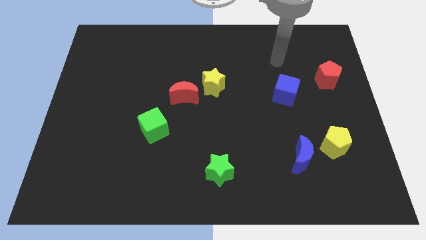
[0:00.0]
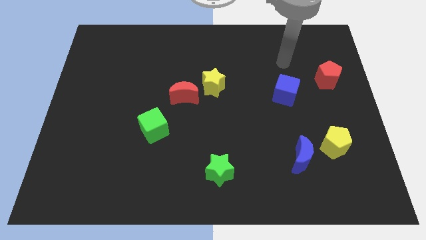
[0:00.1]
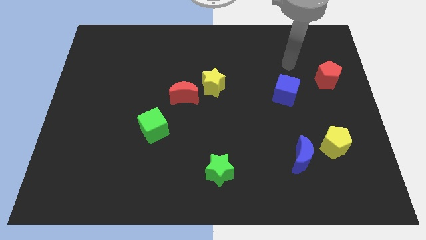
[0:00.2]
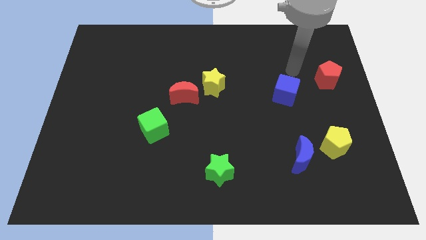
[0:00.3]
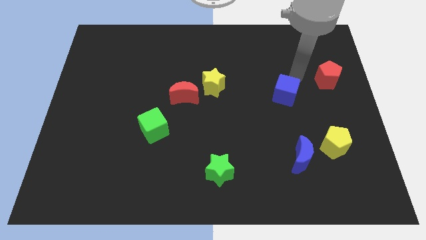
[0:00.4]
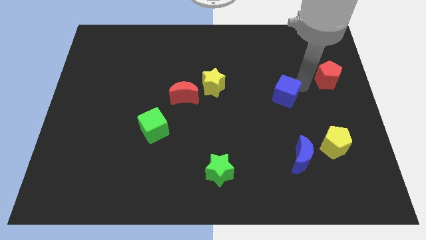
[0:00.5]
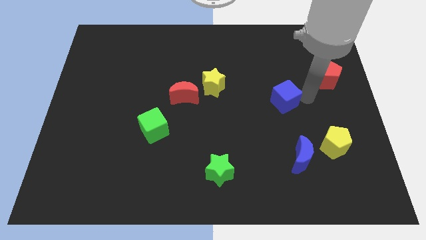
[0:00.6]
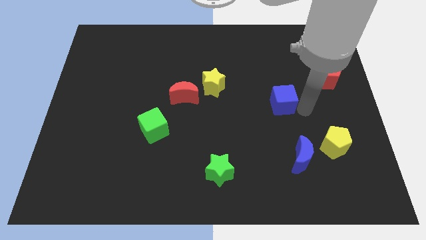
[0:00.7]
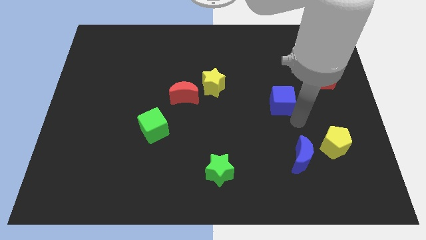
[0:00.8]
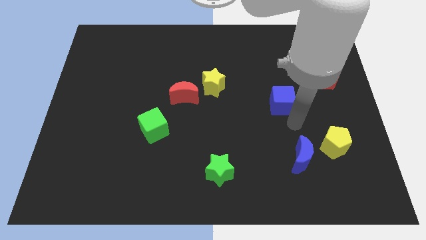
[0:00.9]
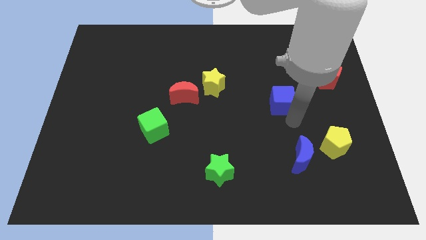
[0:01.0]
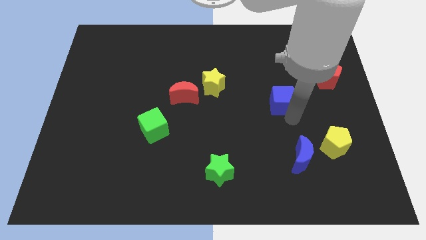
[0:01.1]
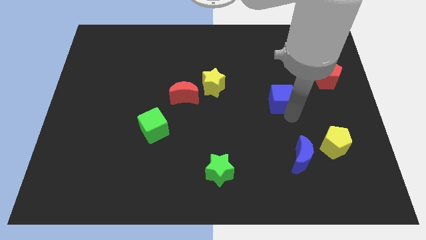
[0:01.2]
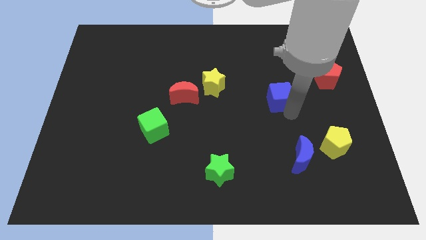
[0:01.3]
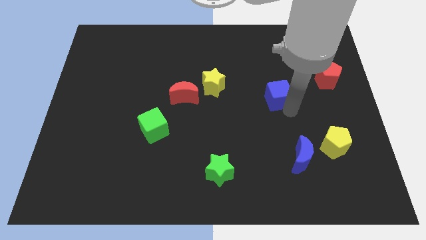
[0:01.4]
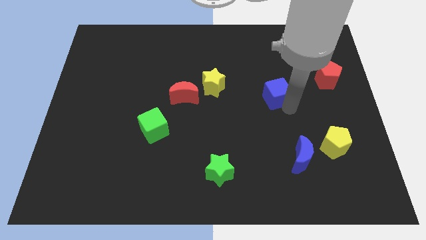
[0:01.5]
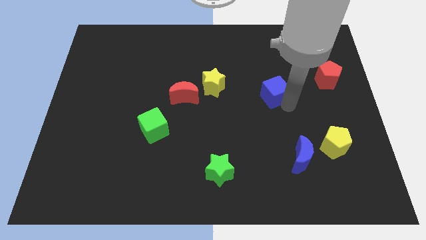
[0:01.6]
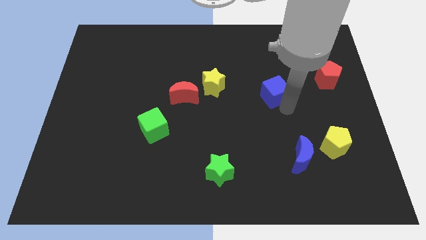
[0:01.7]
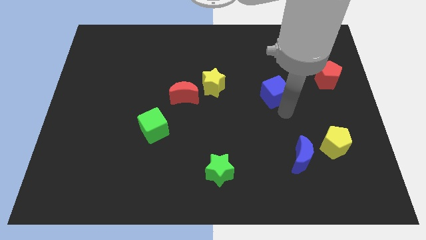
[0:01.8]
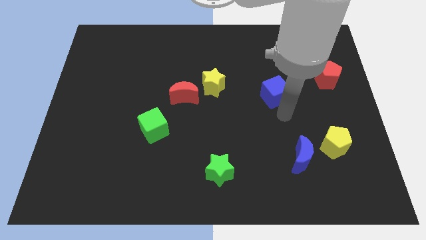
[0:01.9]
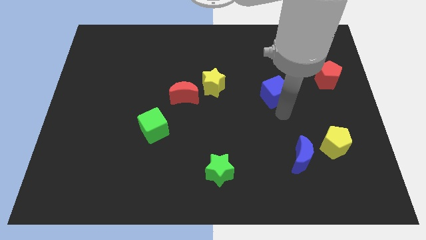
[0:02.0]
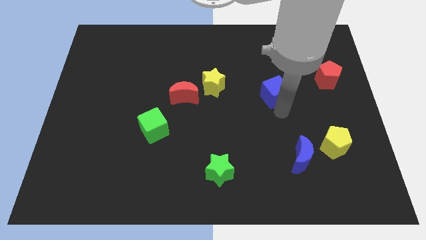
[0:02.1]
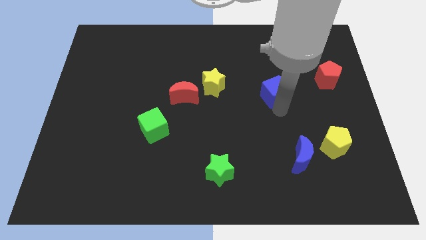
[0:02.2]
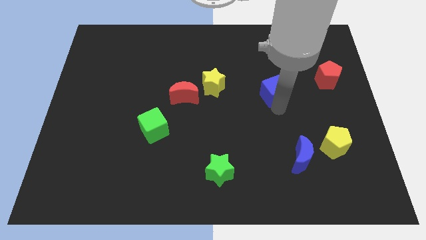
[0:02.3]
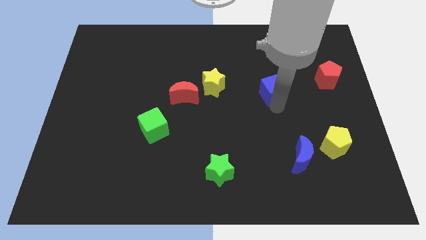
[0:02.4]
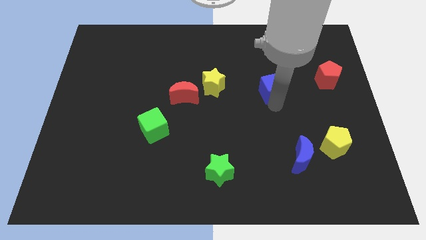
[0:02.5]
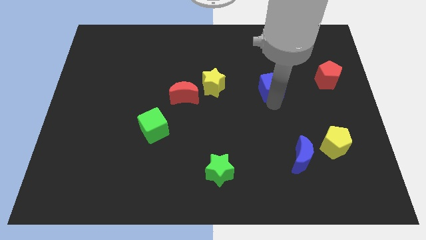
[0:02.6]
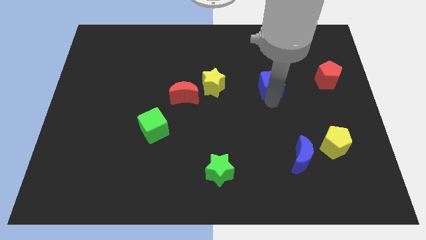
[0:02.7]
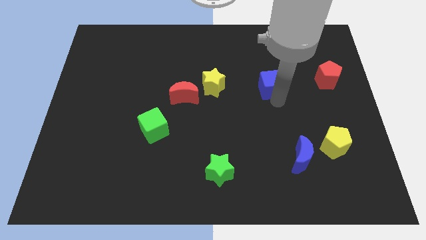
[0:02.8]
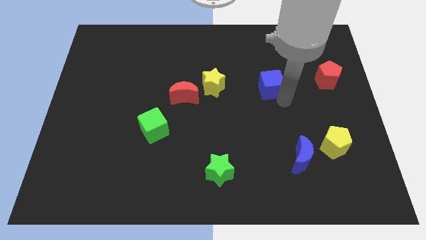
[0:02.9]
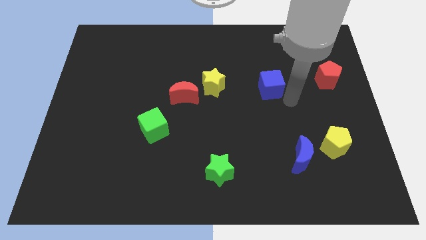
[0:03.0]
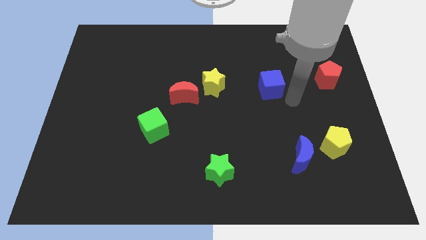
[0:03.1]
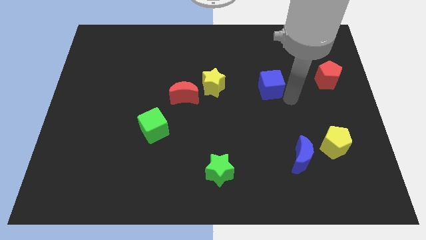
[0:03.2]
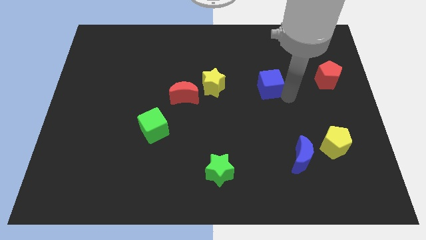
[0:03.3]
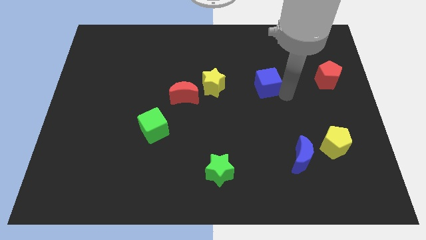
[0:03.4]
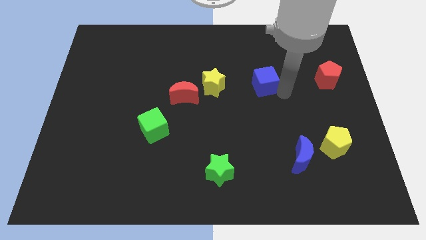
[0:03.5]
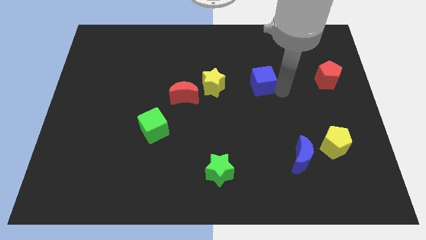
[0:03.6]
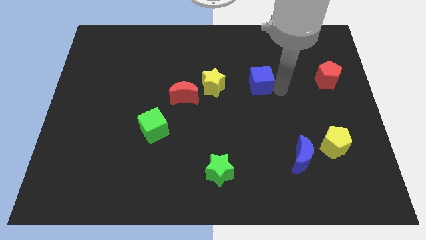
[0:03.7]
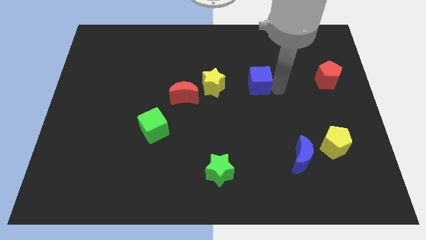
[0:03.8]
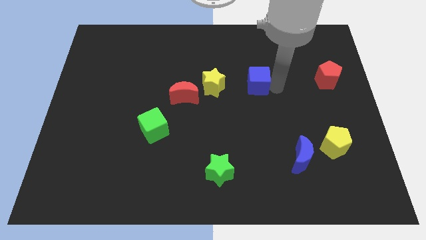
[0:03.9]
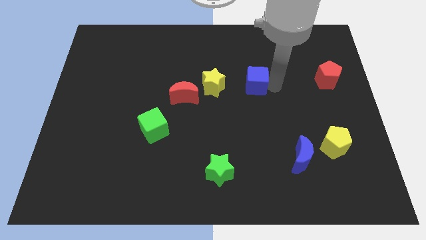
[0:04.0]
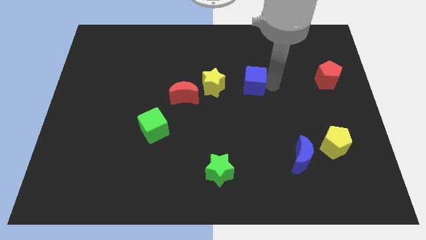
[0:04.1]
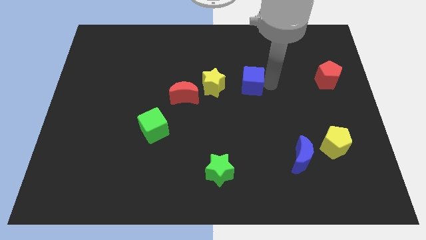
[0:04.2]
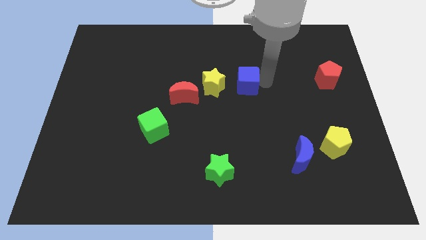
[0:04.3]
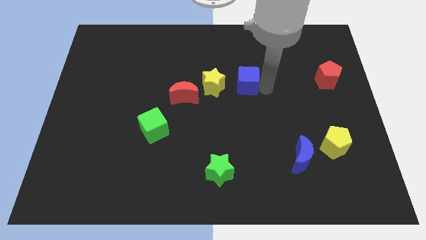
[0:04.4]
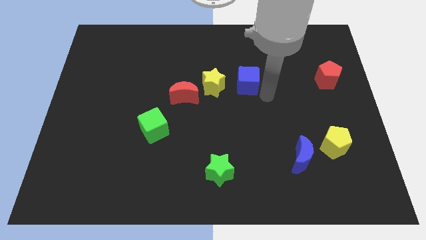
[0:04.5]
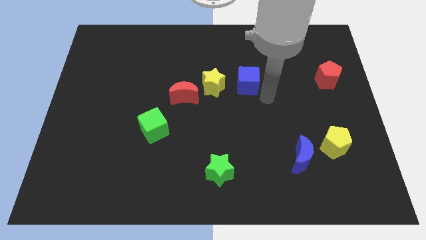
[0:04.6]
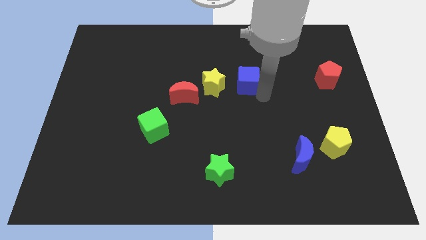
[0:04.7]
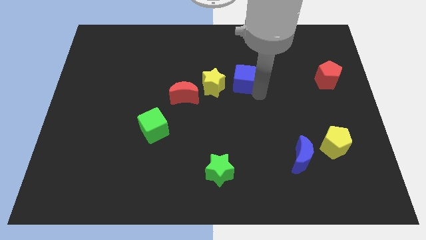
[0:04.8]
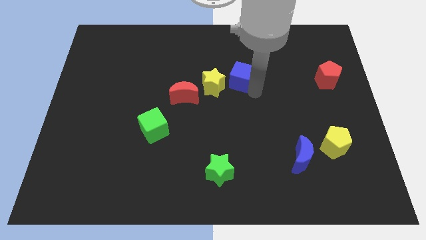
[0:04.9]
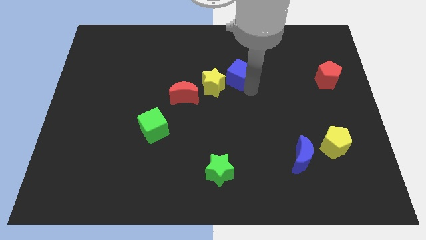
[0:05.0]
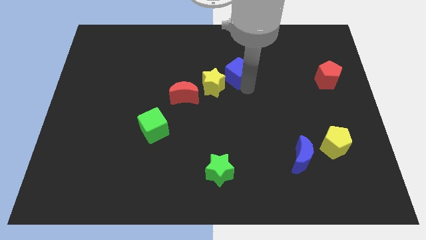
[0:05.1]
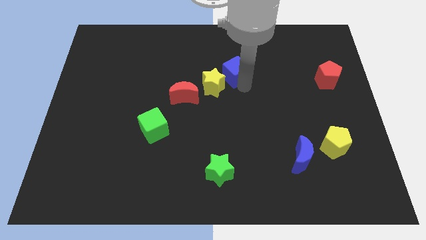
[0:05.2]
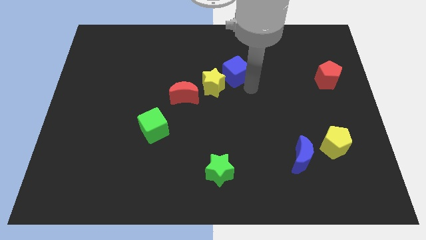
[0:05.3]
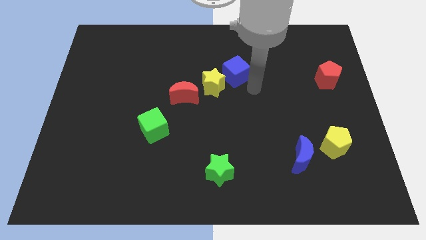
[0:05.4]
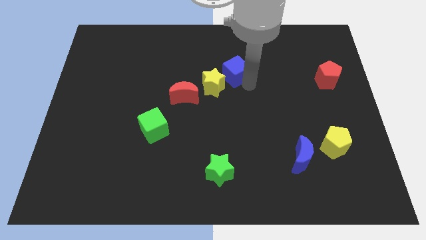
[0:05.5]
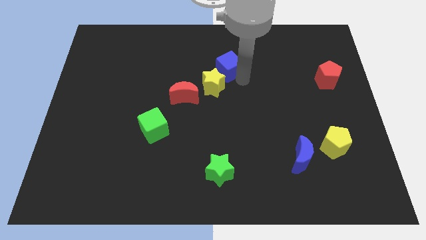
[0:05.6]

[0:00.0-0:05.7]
slide the blue cube above the yellow star
